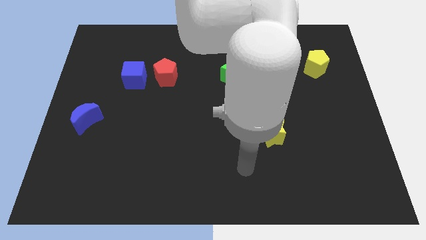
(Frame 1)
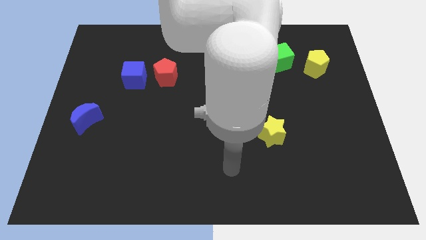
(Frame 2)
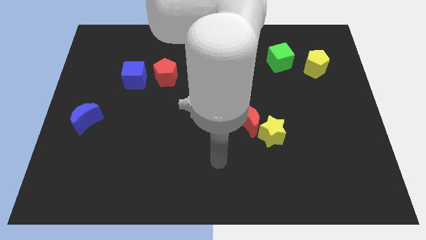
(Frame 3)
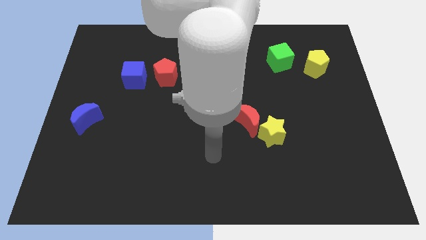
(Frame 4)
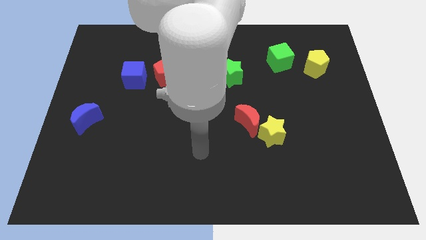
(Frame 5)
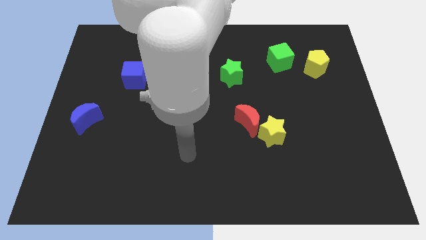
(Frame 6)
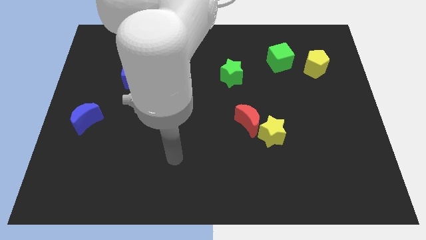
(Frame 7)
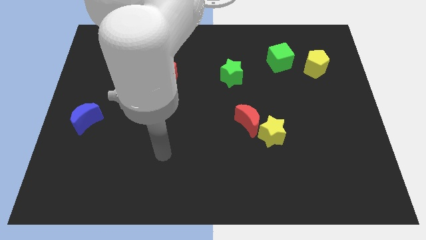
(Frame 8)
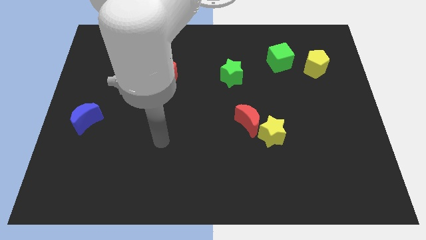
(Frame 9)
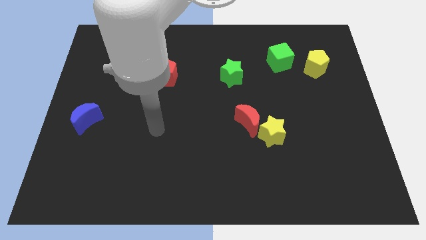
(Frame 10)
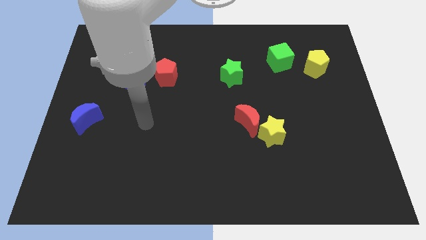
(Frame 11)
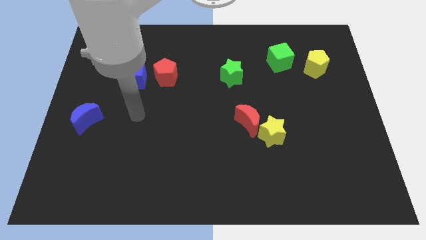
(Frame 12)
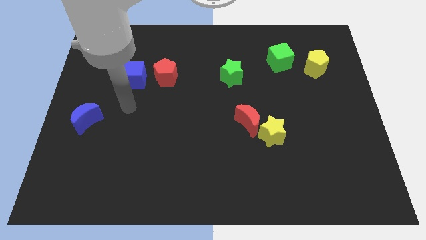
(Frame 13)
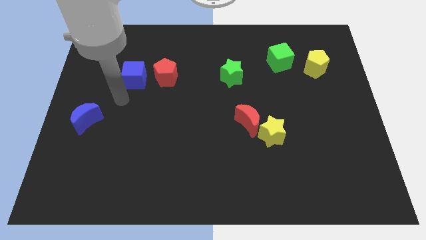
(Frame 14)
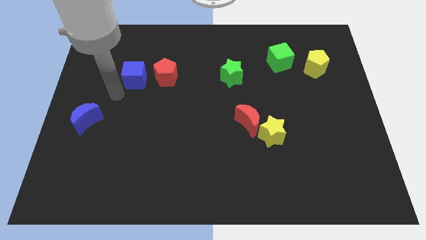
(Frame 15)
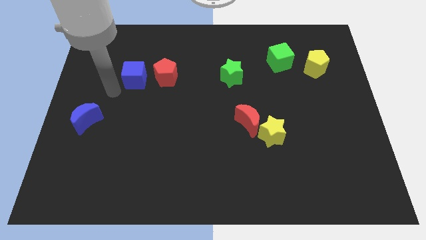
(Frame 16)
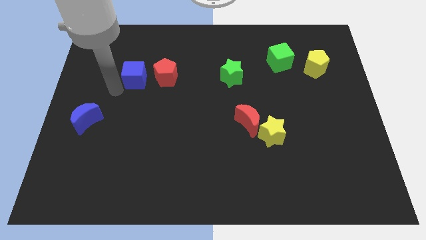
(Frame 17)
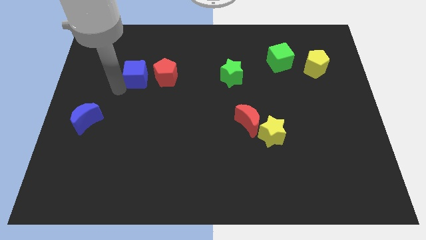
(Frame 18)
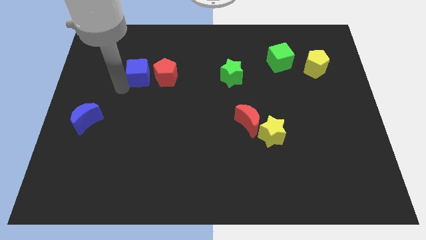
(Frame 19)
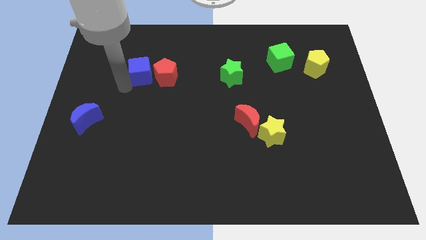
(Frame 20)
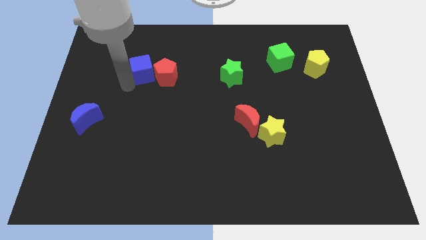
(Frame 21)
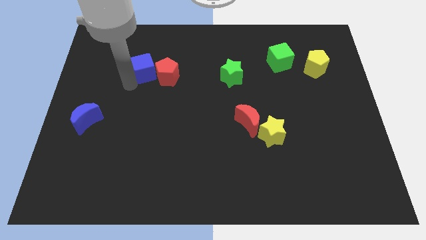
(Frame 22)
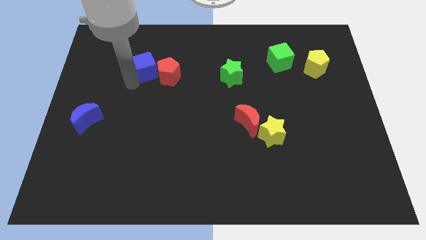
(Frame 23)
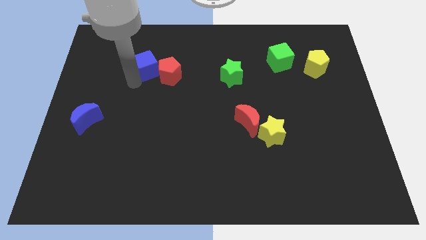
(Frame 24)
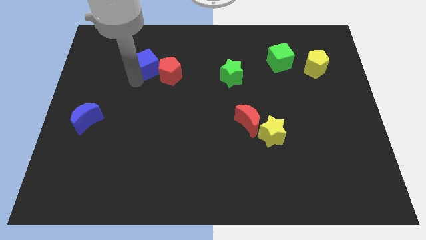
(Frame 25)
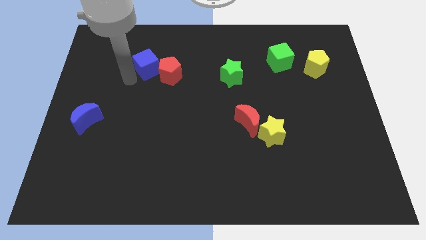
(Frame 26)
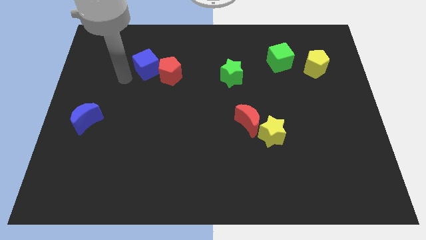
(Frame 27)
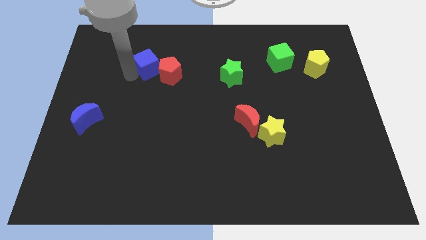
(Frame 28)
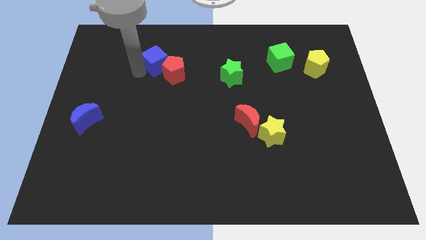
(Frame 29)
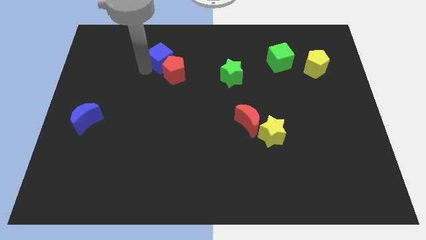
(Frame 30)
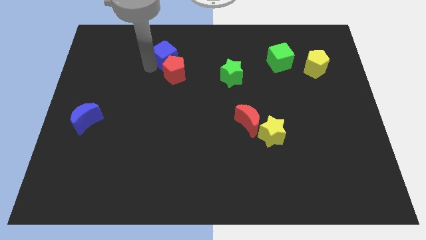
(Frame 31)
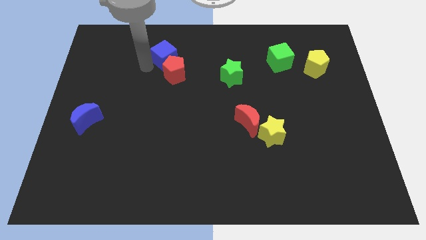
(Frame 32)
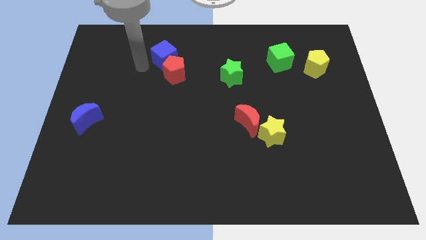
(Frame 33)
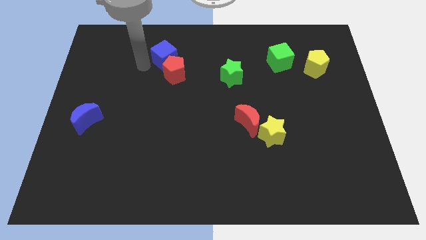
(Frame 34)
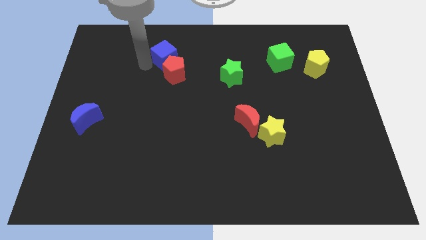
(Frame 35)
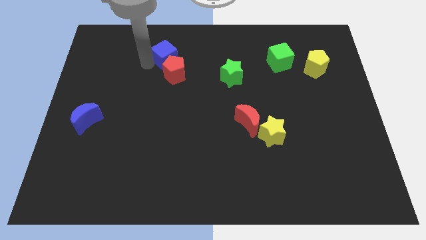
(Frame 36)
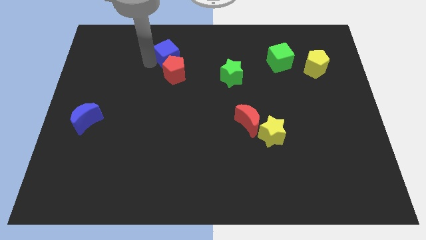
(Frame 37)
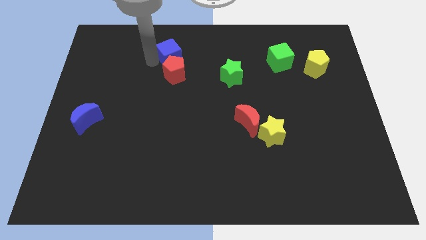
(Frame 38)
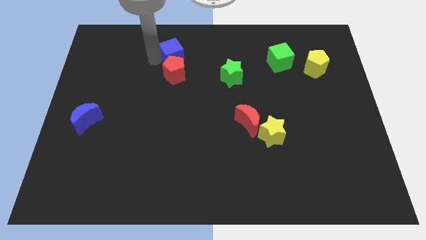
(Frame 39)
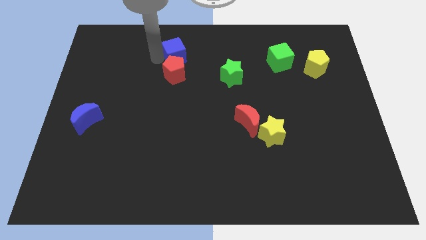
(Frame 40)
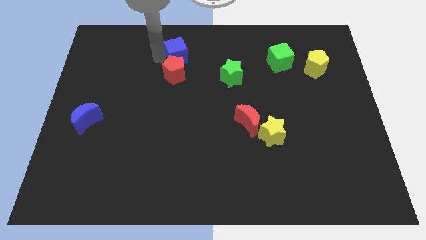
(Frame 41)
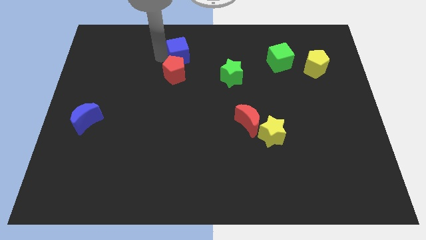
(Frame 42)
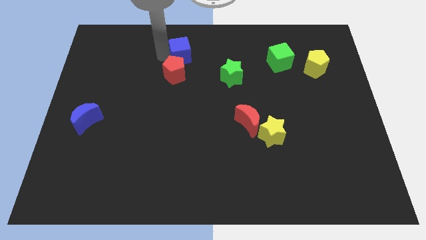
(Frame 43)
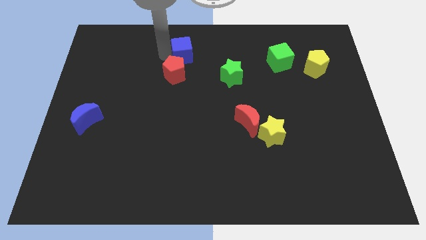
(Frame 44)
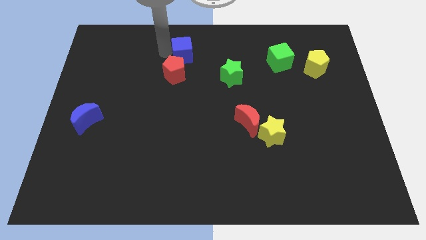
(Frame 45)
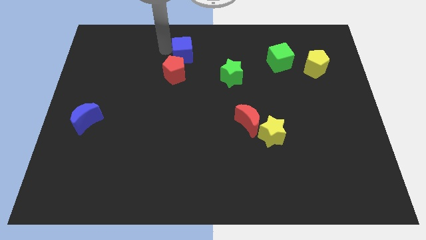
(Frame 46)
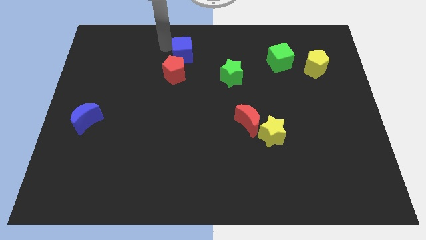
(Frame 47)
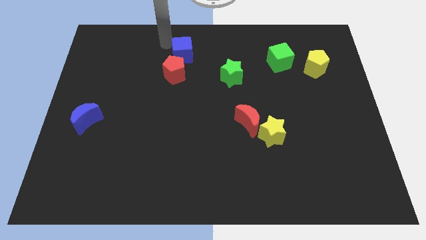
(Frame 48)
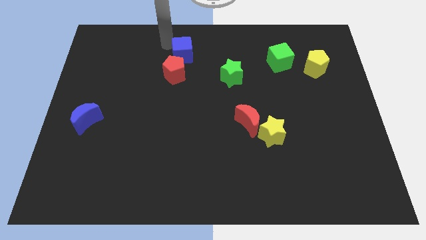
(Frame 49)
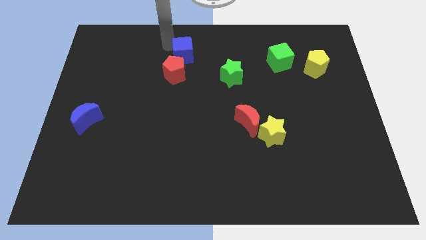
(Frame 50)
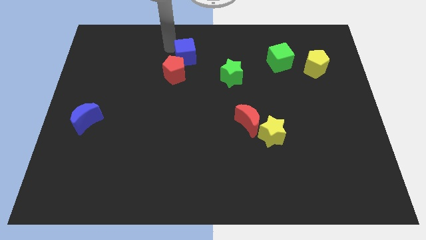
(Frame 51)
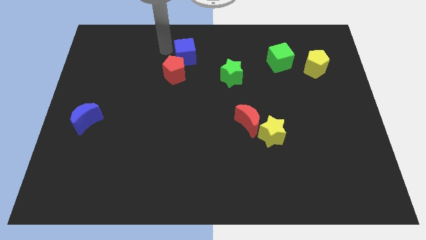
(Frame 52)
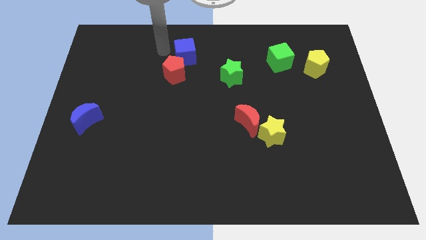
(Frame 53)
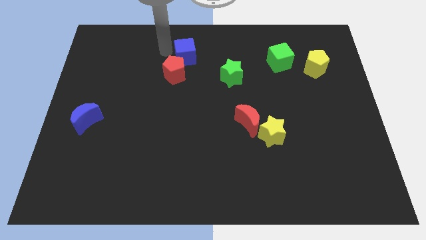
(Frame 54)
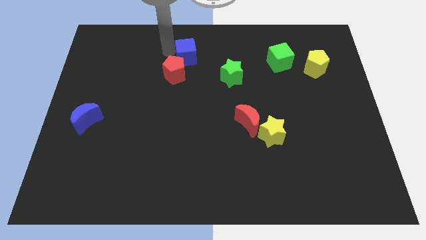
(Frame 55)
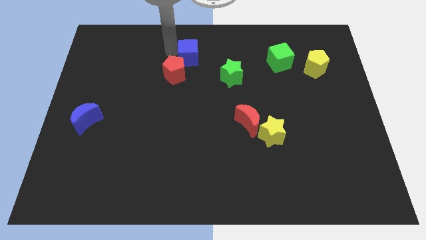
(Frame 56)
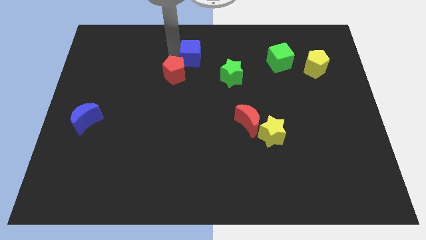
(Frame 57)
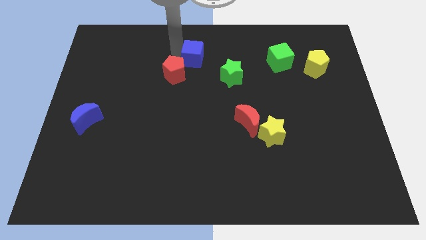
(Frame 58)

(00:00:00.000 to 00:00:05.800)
move the blue cube to the top left side of the green star
